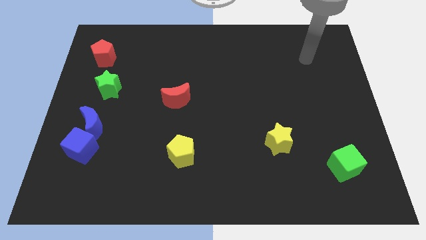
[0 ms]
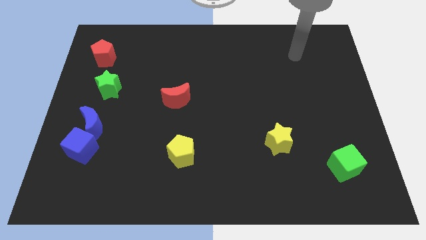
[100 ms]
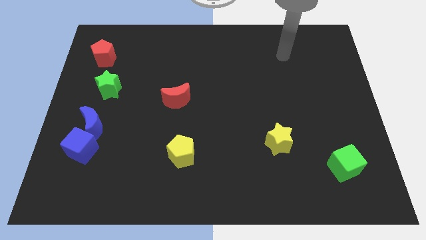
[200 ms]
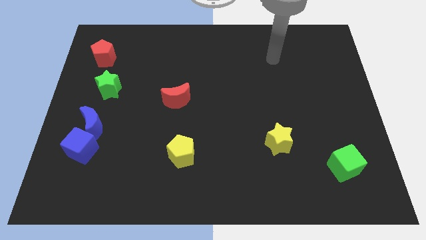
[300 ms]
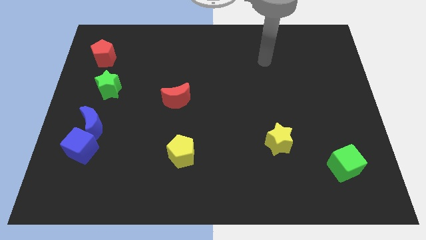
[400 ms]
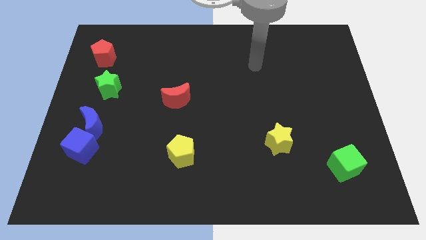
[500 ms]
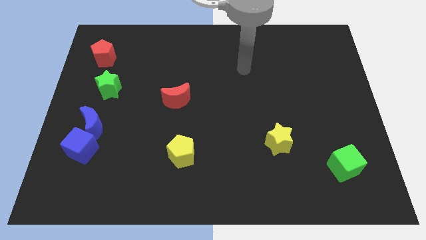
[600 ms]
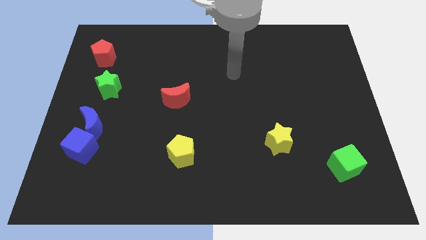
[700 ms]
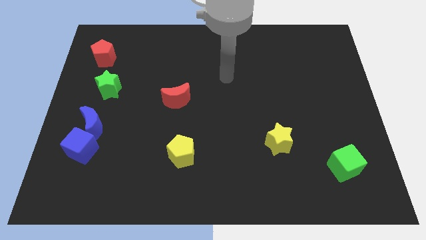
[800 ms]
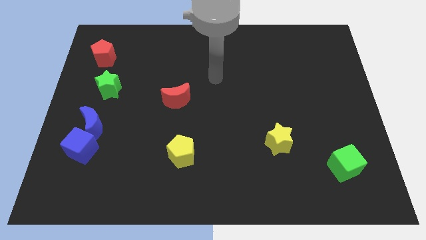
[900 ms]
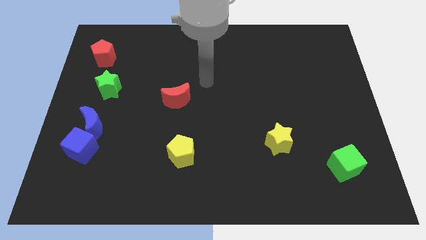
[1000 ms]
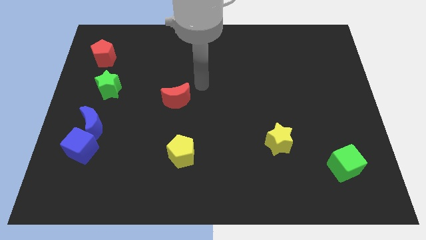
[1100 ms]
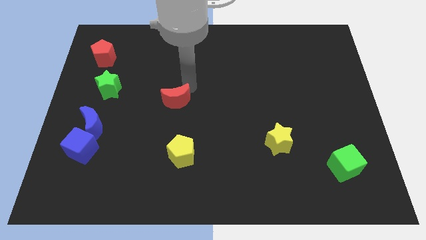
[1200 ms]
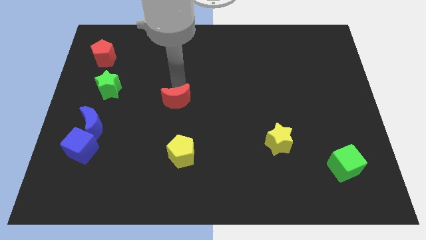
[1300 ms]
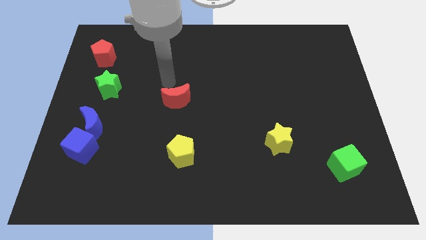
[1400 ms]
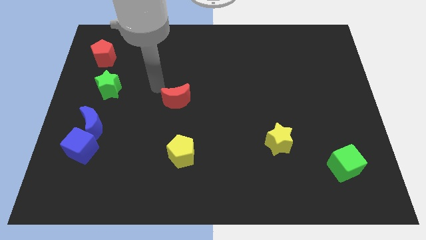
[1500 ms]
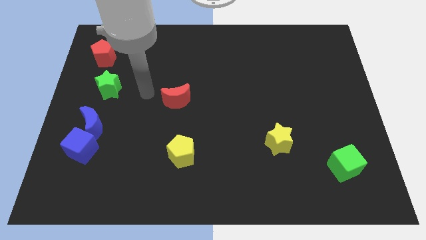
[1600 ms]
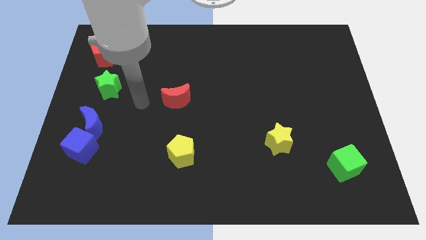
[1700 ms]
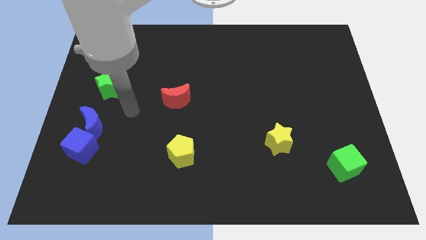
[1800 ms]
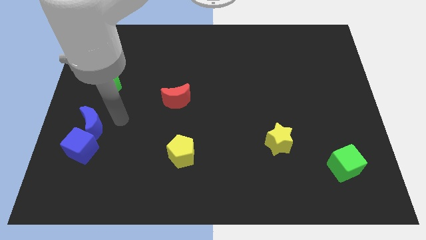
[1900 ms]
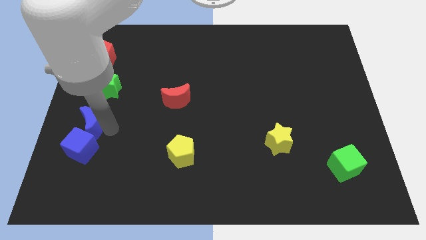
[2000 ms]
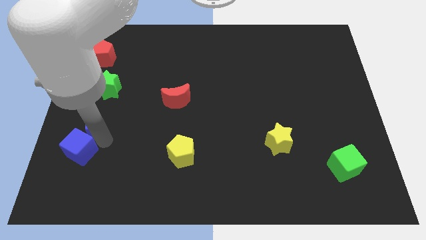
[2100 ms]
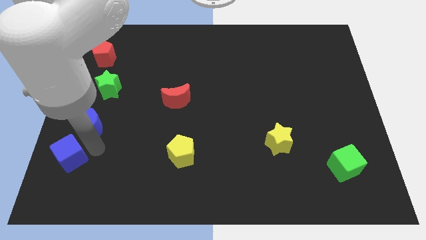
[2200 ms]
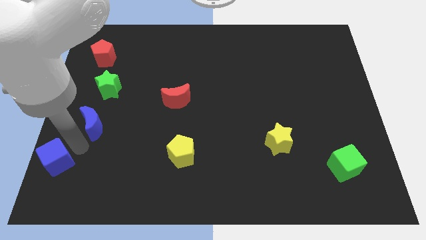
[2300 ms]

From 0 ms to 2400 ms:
pull the blue moon apart from the blue cube

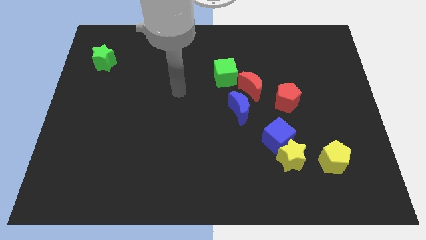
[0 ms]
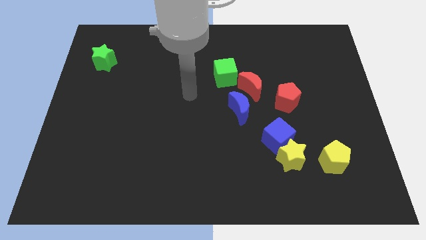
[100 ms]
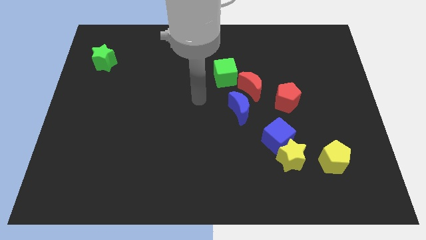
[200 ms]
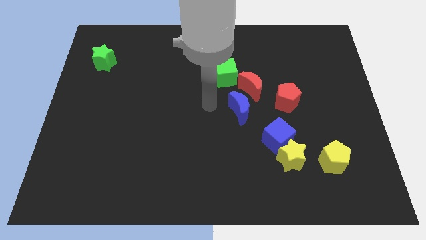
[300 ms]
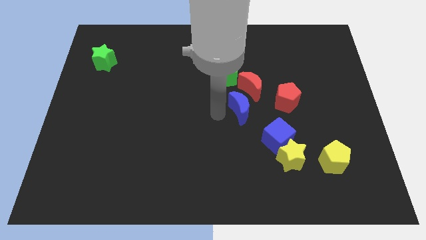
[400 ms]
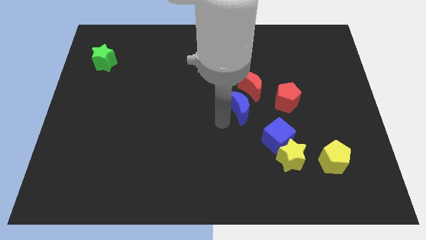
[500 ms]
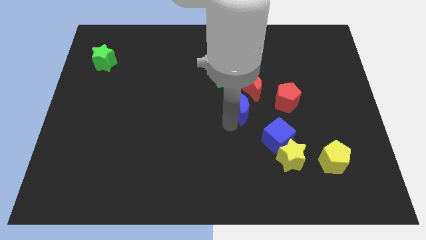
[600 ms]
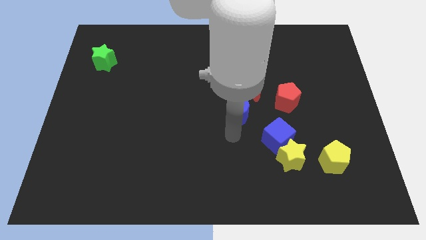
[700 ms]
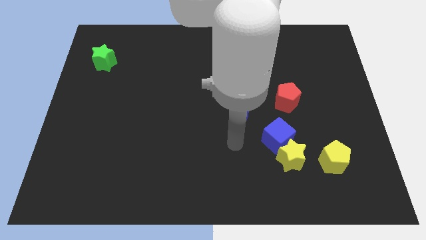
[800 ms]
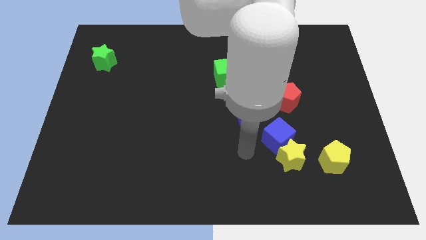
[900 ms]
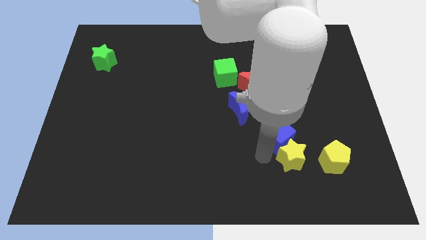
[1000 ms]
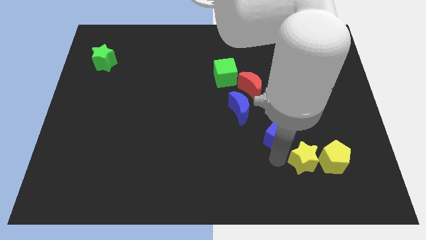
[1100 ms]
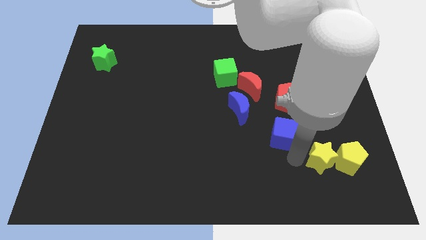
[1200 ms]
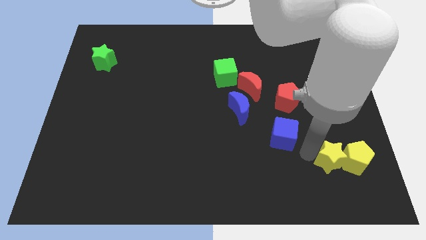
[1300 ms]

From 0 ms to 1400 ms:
move the blue cube away from the yellow star

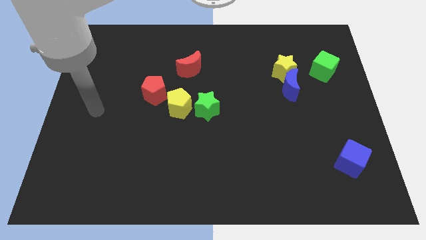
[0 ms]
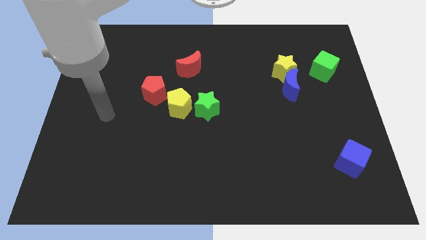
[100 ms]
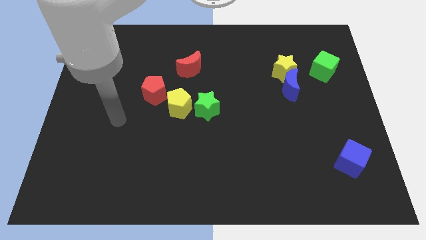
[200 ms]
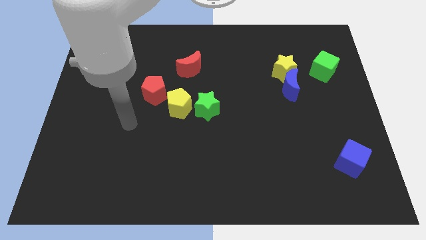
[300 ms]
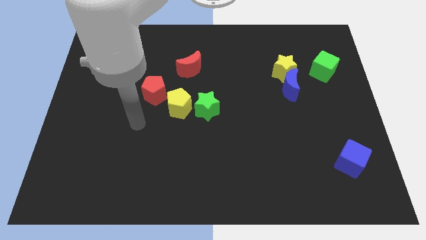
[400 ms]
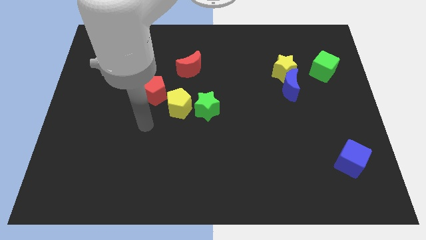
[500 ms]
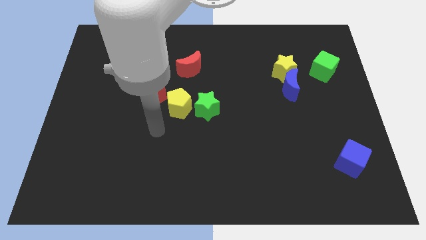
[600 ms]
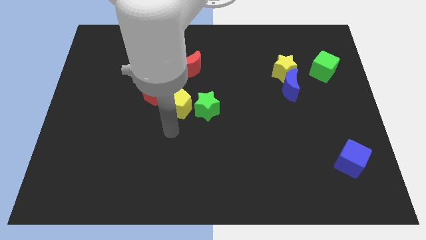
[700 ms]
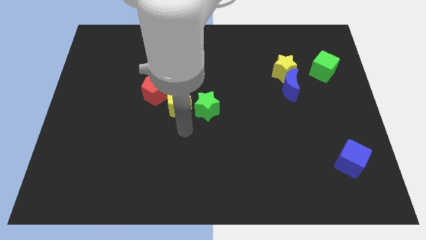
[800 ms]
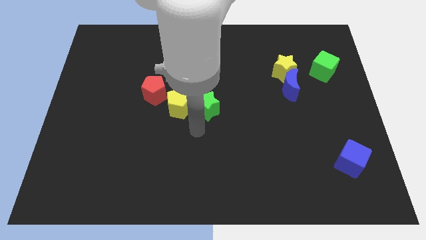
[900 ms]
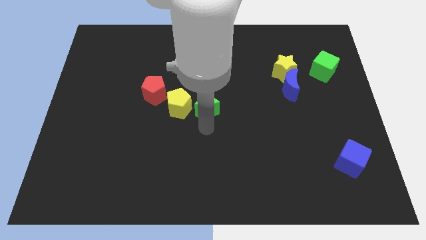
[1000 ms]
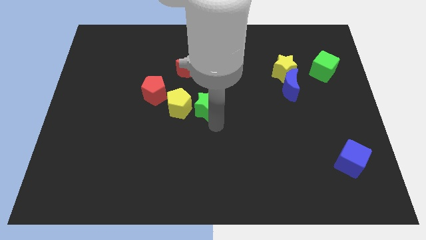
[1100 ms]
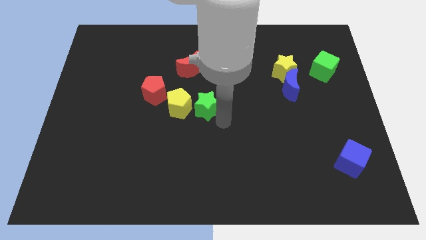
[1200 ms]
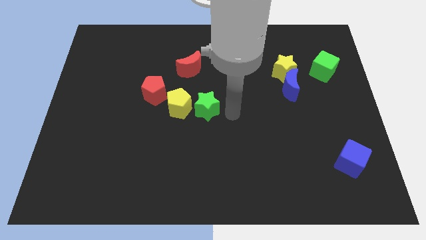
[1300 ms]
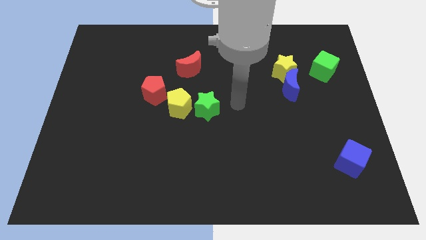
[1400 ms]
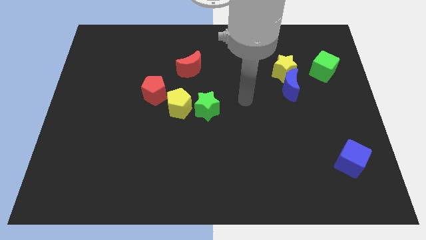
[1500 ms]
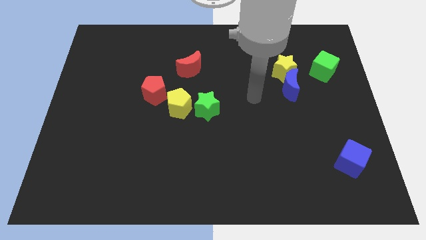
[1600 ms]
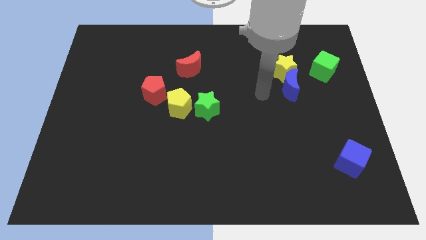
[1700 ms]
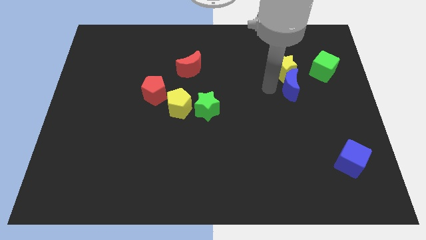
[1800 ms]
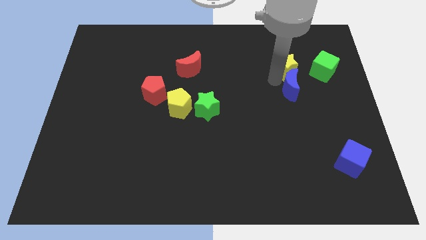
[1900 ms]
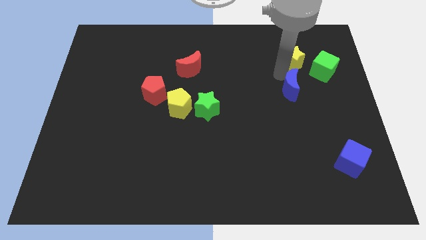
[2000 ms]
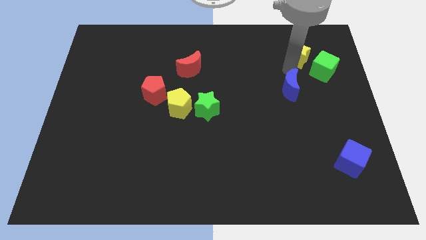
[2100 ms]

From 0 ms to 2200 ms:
separate the blue moon from the yellow star

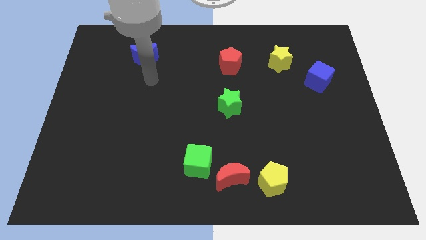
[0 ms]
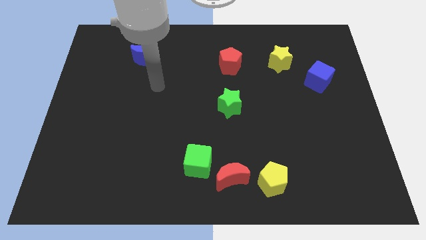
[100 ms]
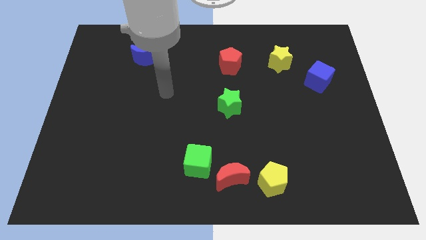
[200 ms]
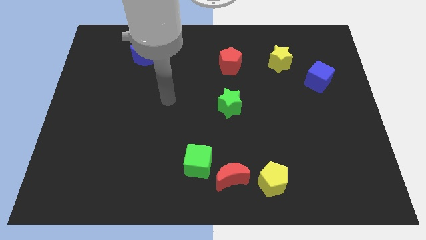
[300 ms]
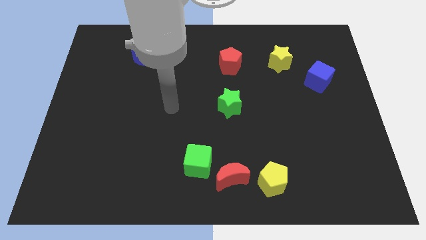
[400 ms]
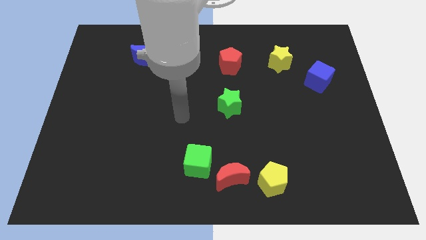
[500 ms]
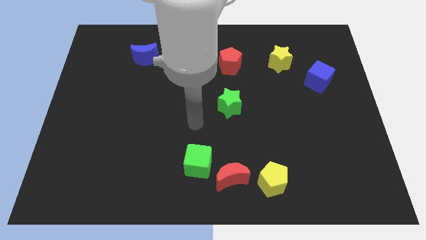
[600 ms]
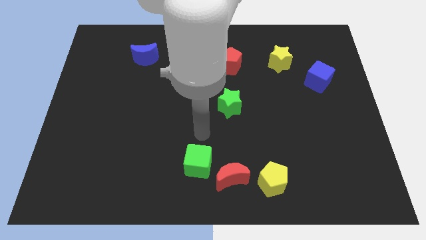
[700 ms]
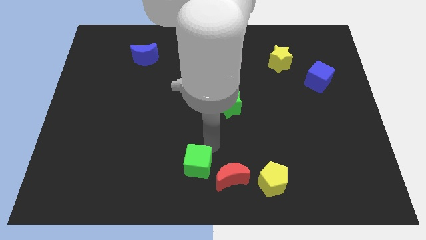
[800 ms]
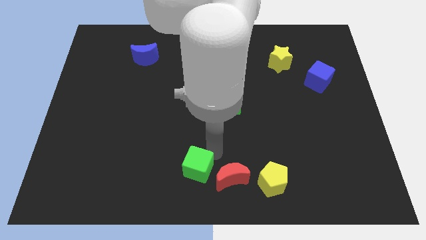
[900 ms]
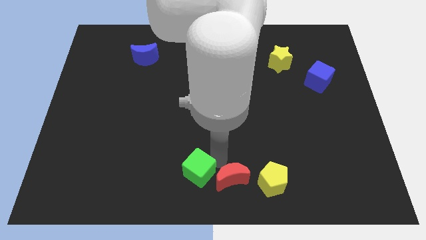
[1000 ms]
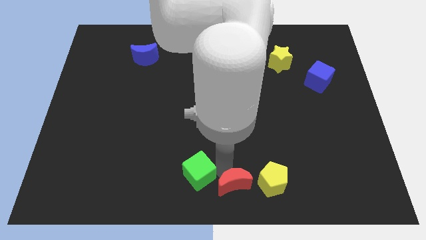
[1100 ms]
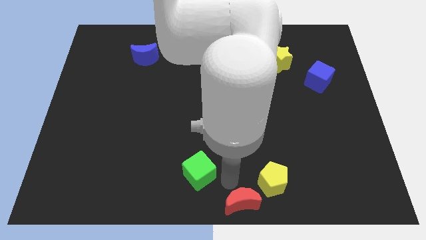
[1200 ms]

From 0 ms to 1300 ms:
separate the green cube from the red moon

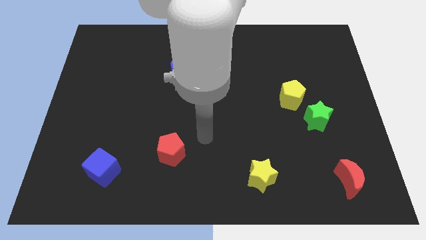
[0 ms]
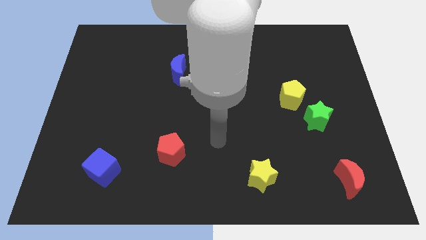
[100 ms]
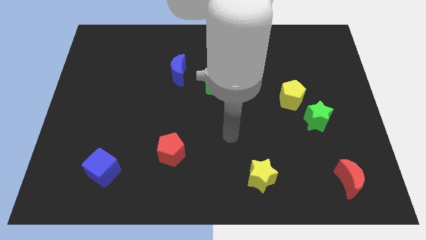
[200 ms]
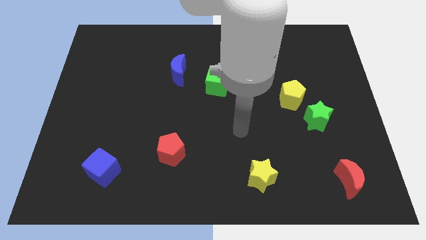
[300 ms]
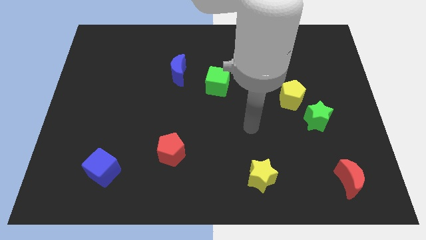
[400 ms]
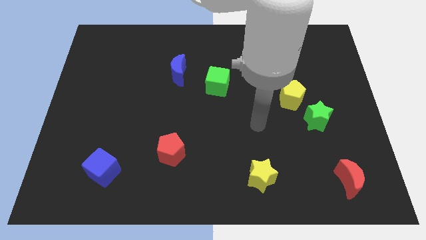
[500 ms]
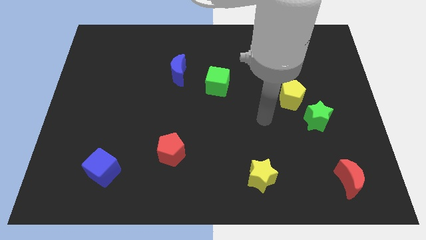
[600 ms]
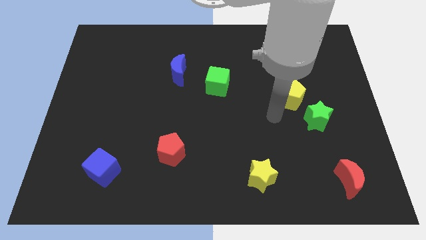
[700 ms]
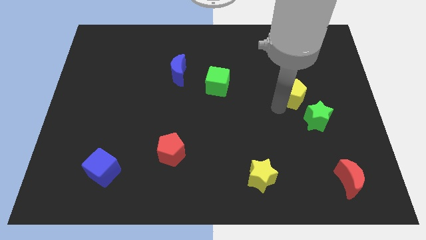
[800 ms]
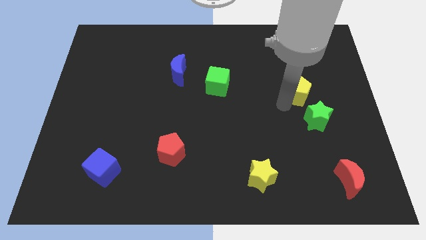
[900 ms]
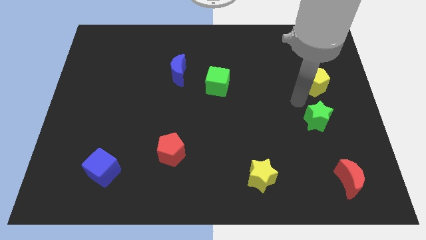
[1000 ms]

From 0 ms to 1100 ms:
pull the green star apart from the yellow pentagon

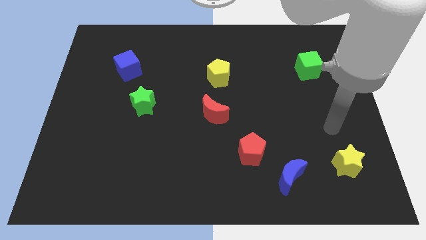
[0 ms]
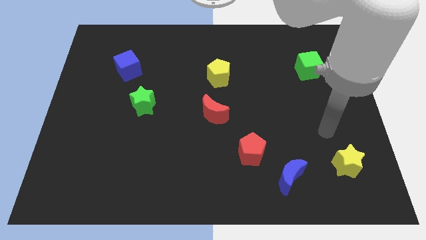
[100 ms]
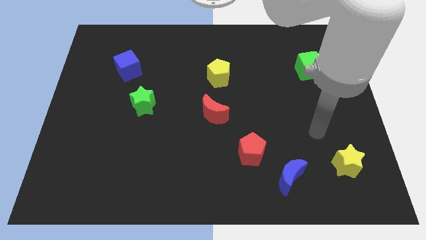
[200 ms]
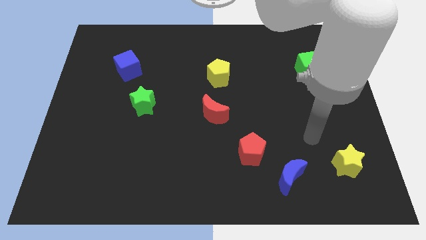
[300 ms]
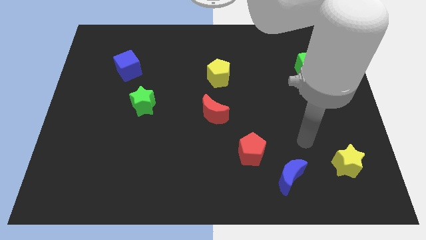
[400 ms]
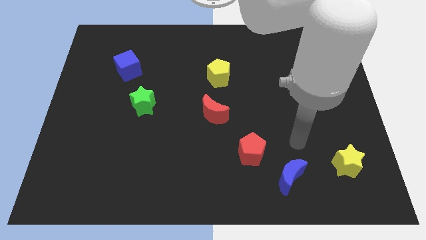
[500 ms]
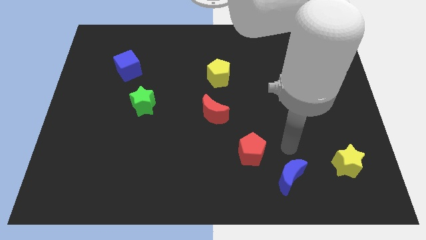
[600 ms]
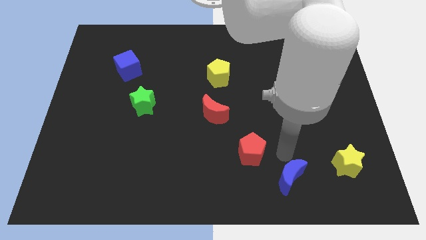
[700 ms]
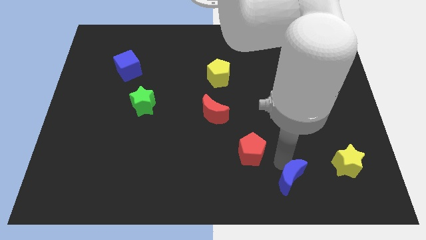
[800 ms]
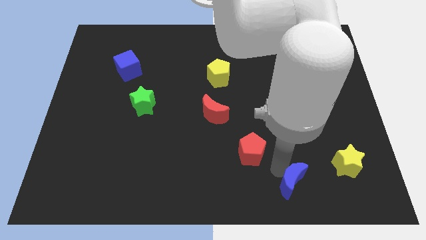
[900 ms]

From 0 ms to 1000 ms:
separate the red pentagon from the blue moon
